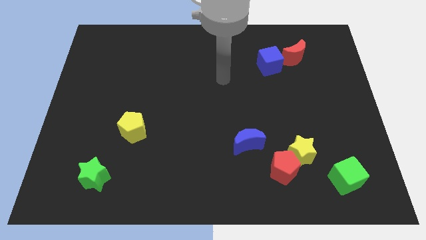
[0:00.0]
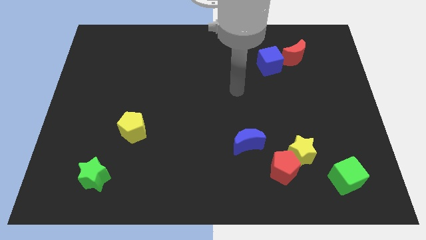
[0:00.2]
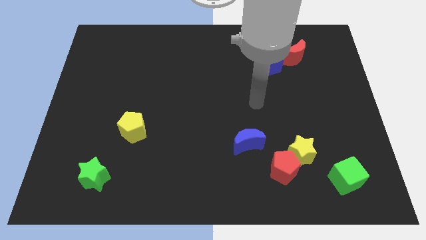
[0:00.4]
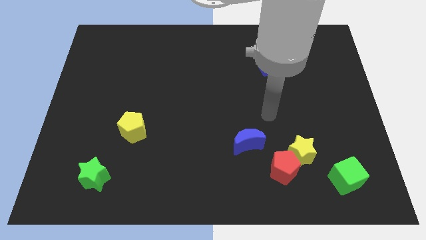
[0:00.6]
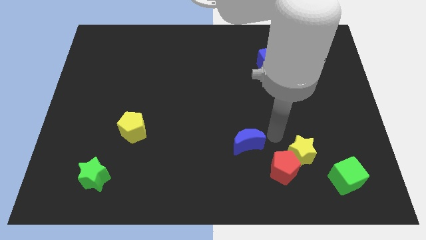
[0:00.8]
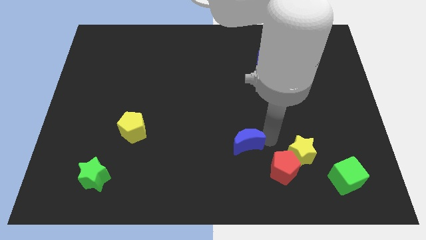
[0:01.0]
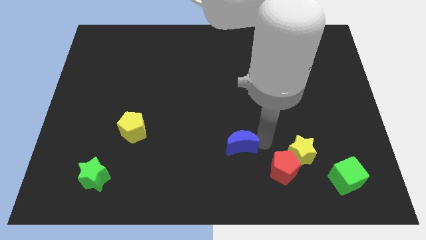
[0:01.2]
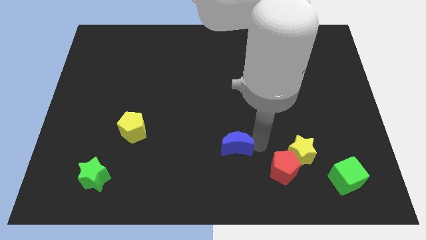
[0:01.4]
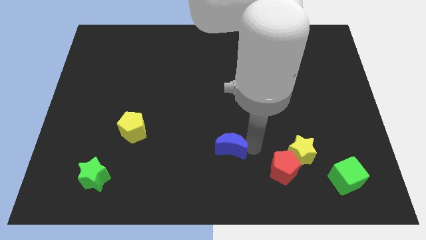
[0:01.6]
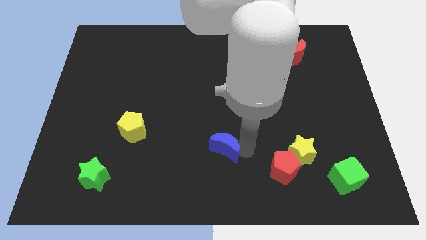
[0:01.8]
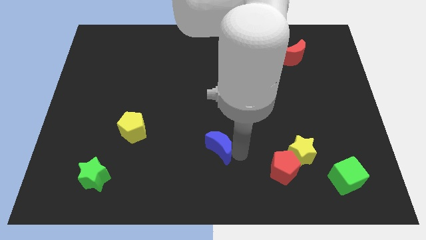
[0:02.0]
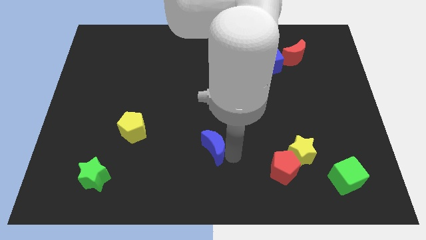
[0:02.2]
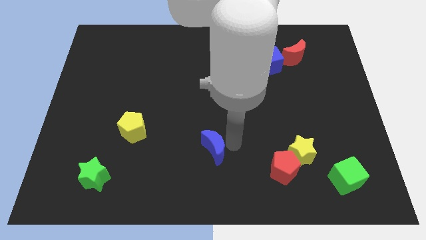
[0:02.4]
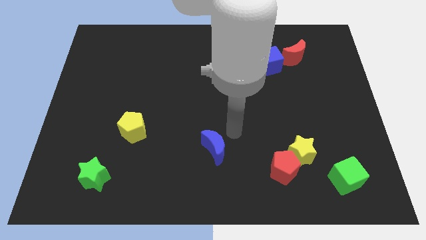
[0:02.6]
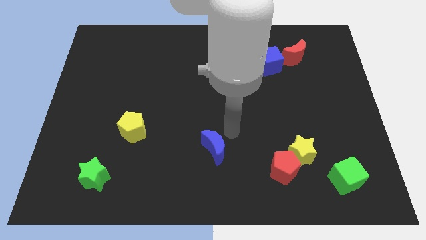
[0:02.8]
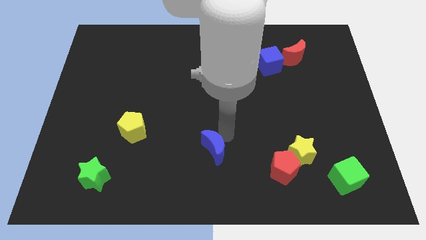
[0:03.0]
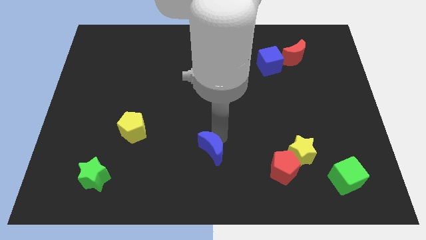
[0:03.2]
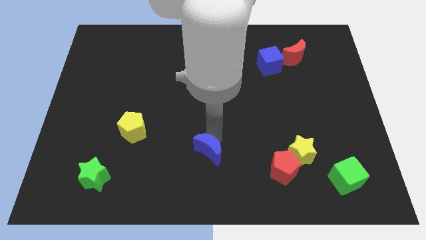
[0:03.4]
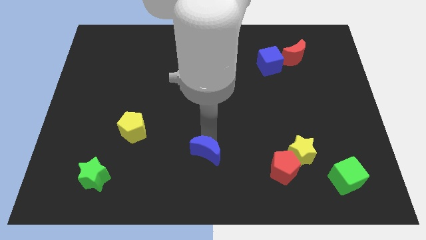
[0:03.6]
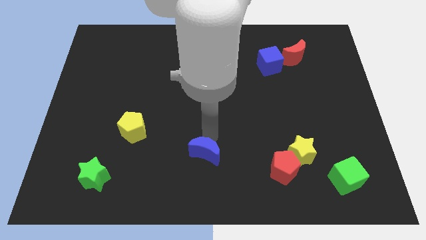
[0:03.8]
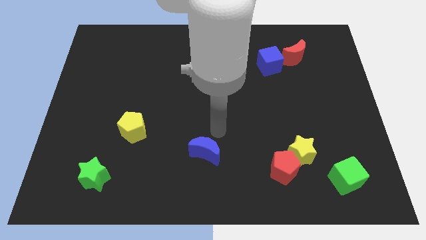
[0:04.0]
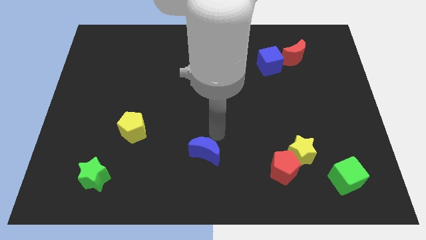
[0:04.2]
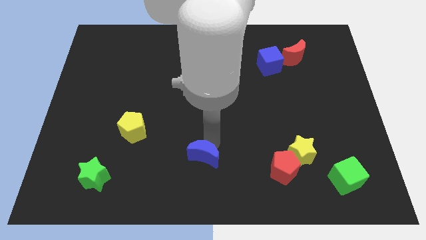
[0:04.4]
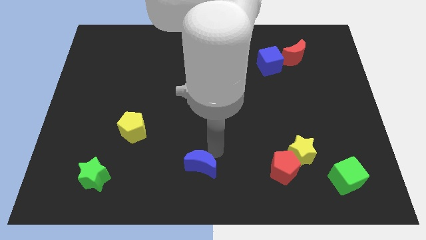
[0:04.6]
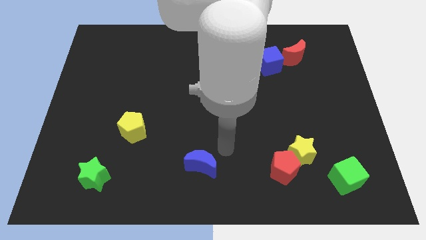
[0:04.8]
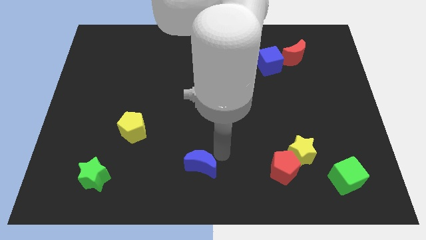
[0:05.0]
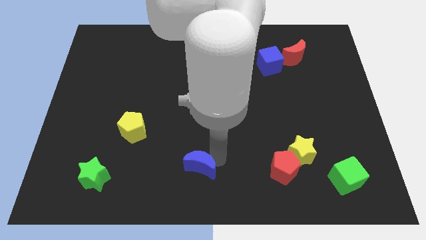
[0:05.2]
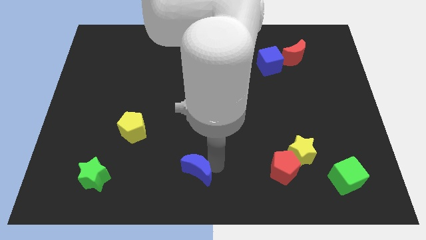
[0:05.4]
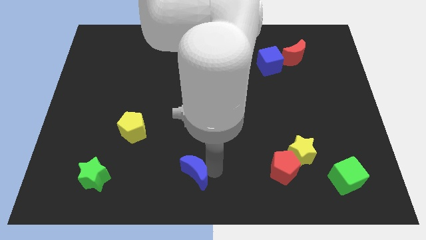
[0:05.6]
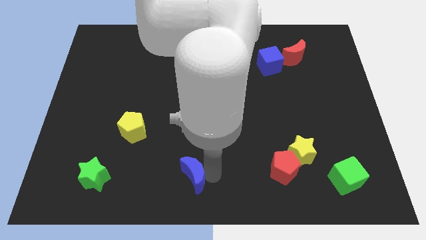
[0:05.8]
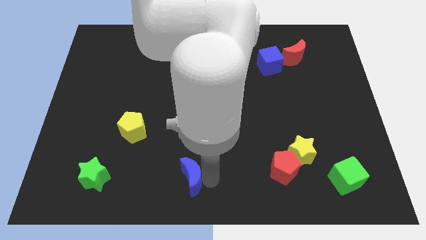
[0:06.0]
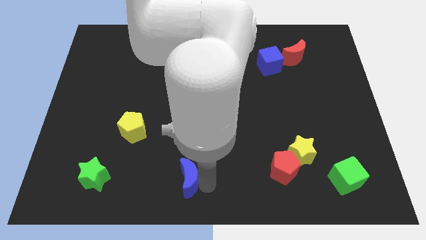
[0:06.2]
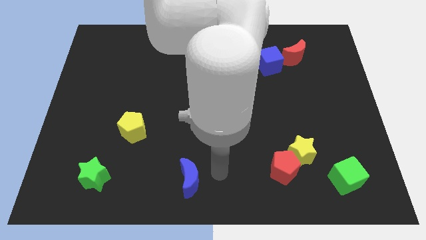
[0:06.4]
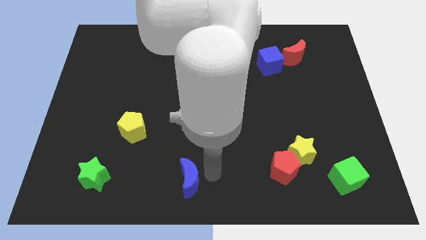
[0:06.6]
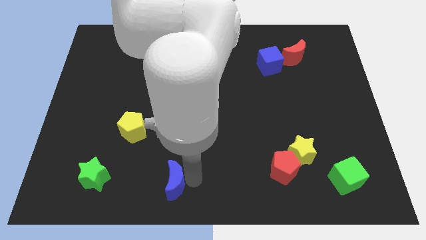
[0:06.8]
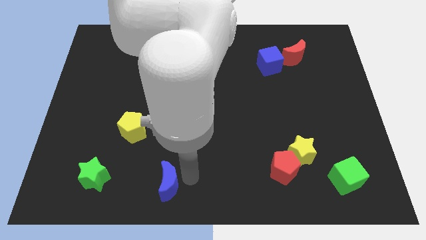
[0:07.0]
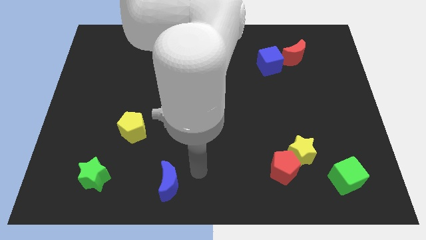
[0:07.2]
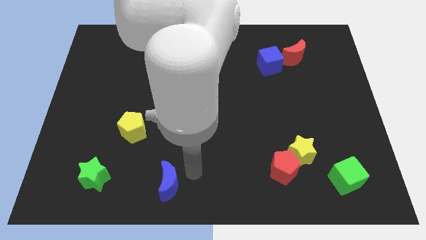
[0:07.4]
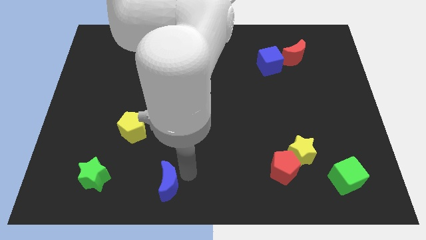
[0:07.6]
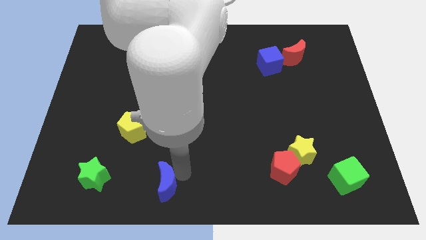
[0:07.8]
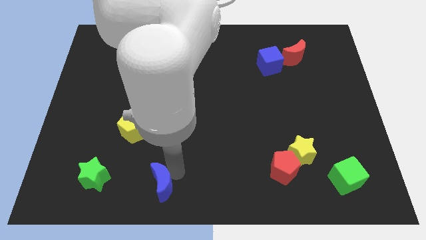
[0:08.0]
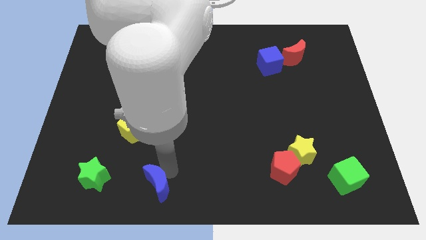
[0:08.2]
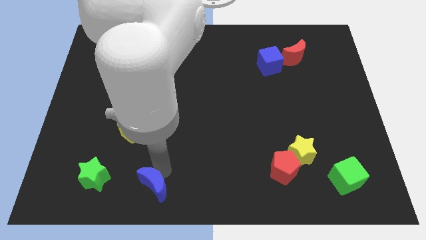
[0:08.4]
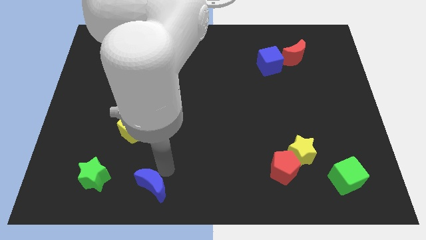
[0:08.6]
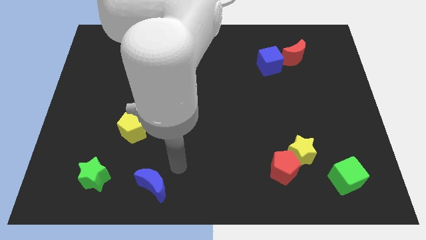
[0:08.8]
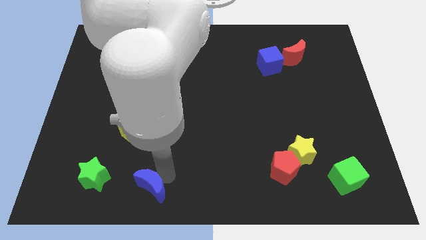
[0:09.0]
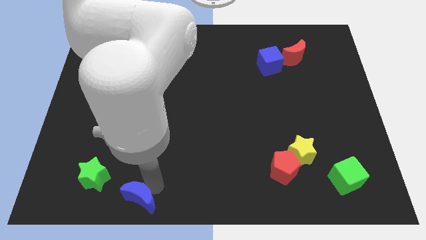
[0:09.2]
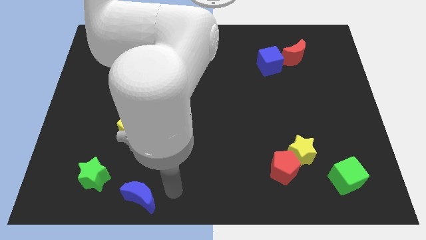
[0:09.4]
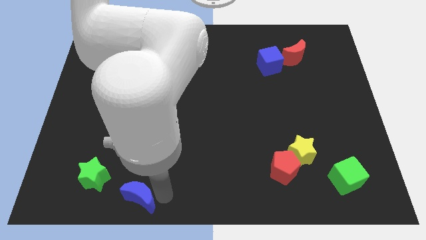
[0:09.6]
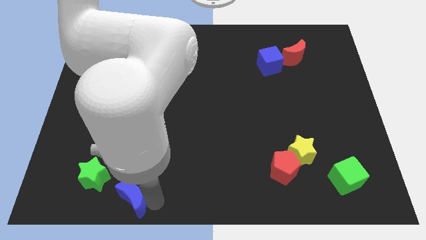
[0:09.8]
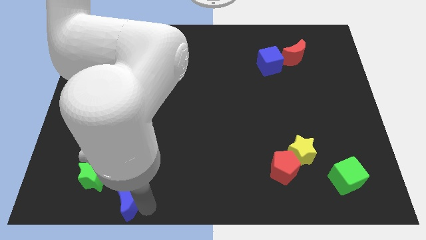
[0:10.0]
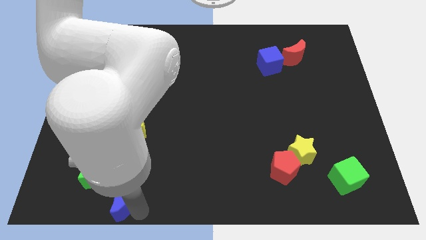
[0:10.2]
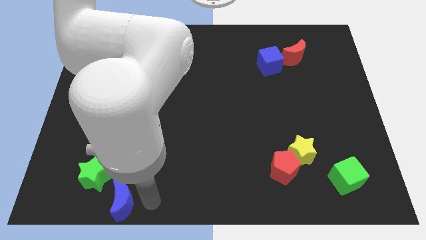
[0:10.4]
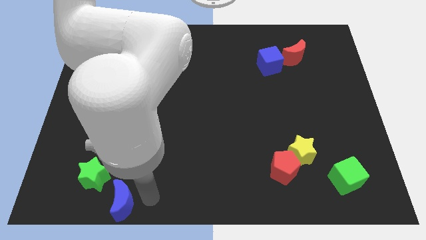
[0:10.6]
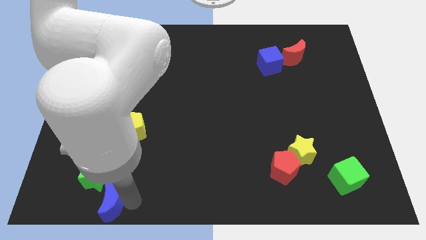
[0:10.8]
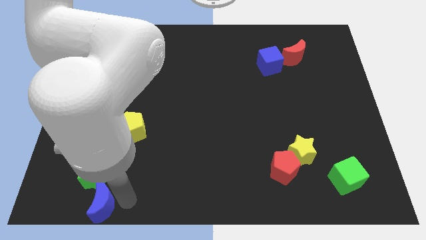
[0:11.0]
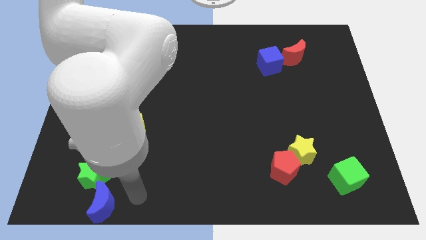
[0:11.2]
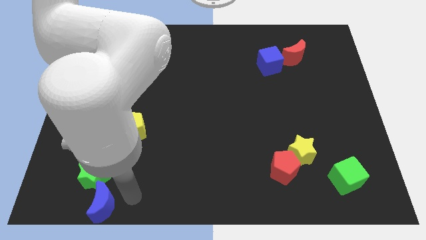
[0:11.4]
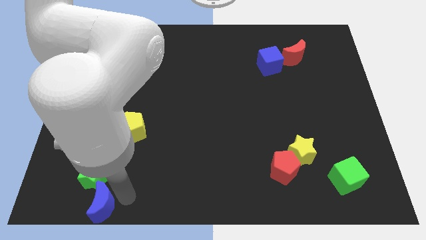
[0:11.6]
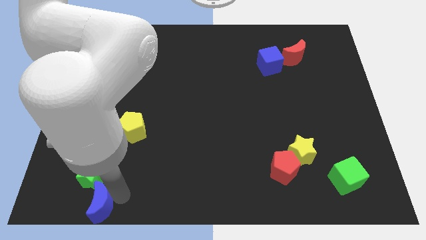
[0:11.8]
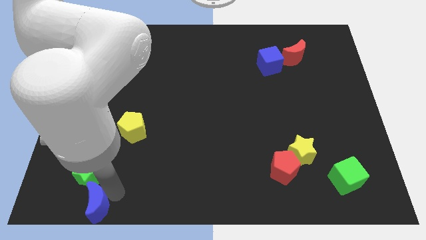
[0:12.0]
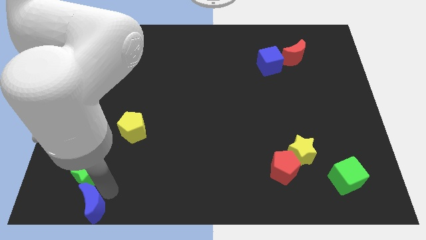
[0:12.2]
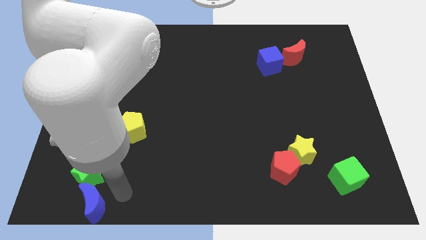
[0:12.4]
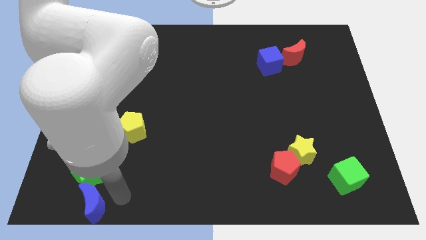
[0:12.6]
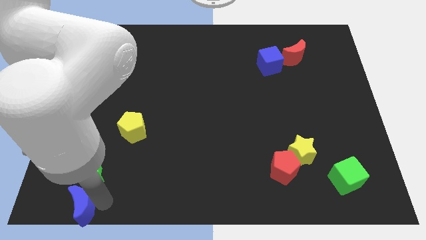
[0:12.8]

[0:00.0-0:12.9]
push the blue moon to the bottom left
